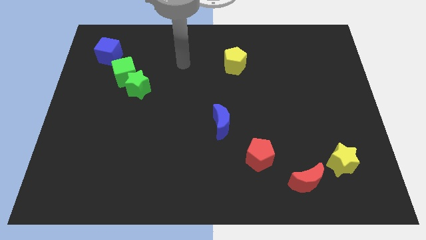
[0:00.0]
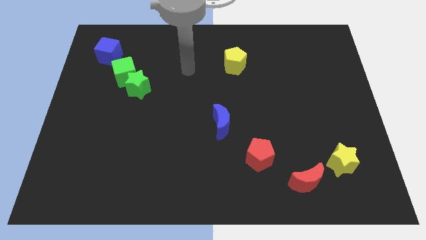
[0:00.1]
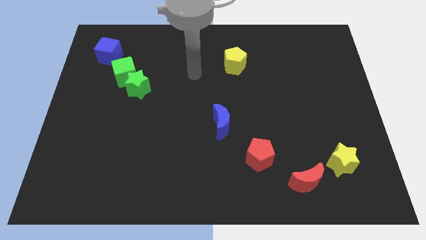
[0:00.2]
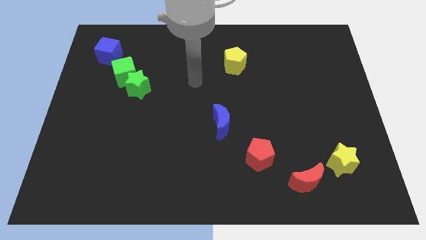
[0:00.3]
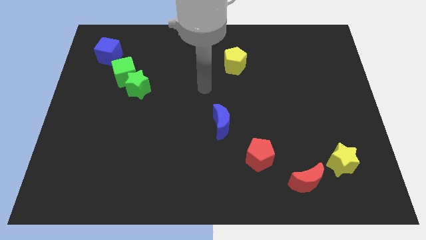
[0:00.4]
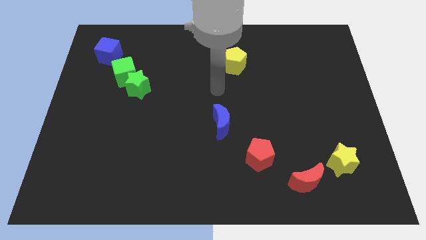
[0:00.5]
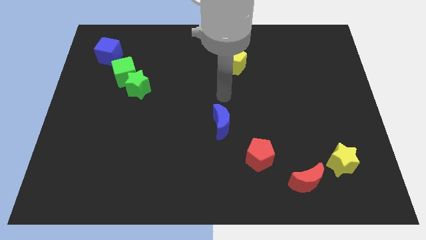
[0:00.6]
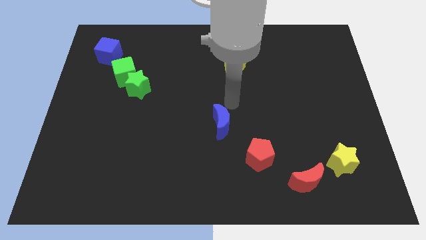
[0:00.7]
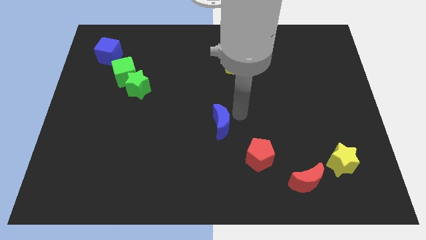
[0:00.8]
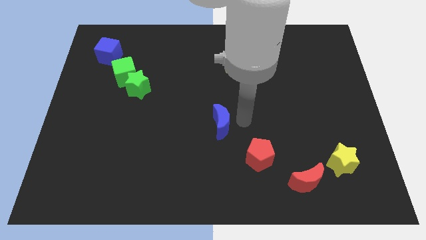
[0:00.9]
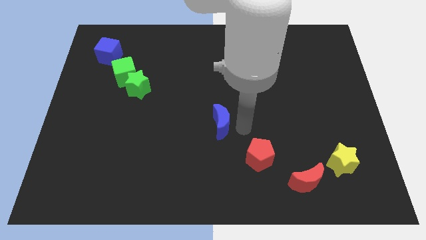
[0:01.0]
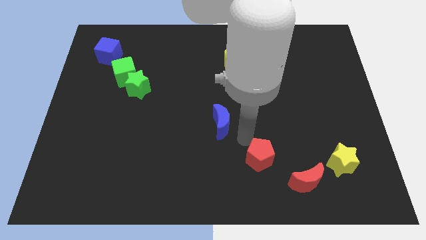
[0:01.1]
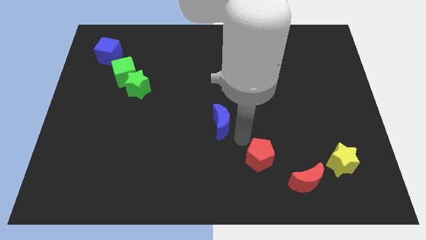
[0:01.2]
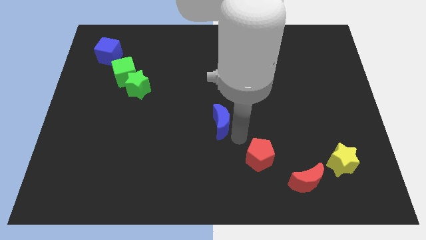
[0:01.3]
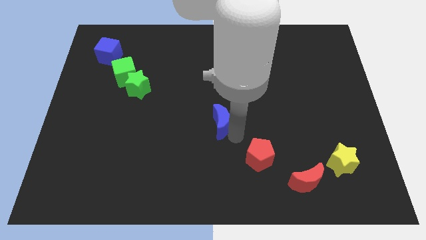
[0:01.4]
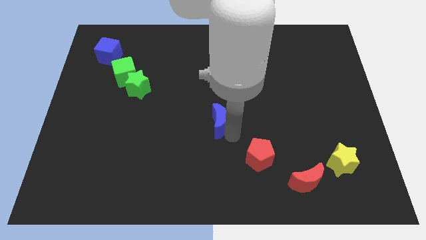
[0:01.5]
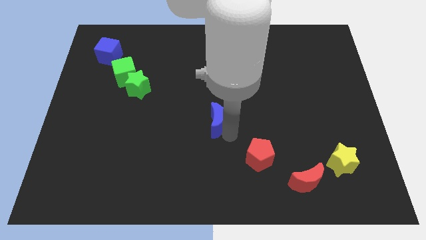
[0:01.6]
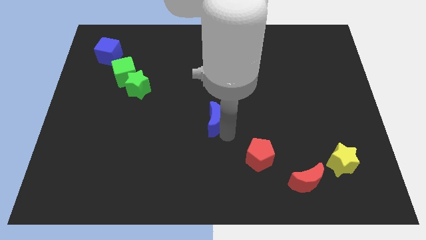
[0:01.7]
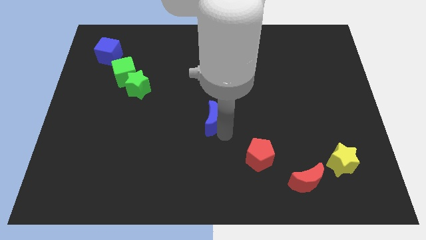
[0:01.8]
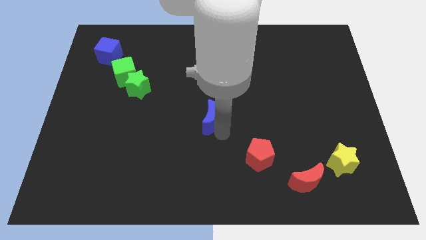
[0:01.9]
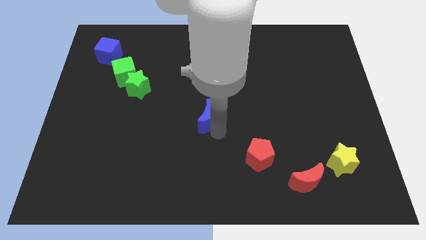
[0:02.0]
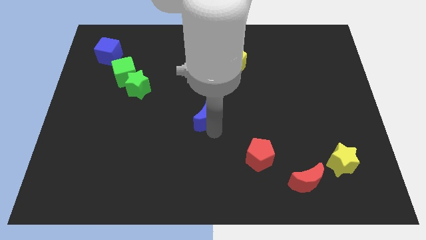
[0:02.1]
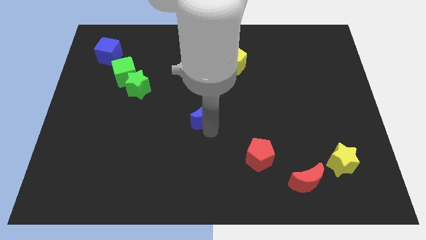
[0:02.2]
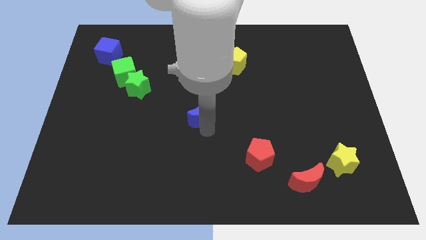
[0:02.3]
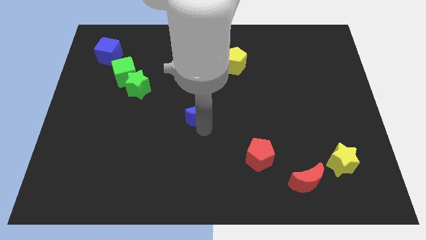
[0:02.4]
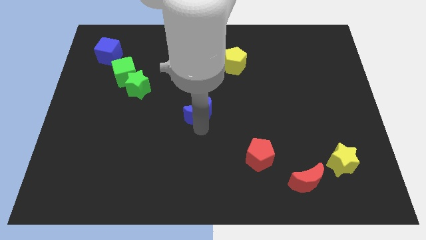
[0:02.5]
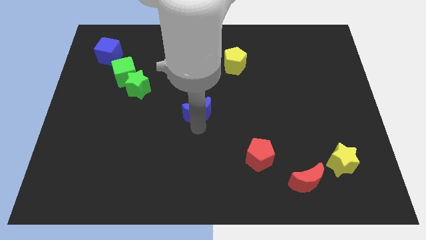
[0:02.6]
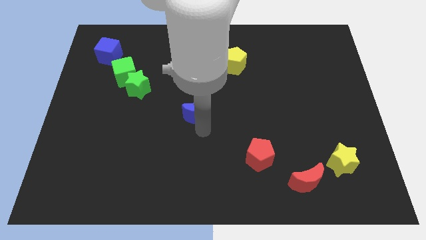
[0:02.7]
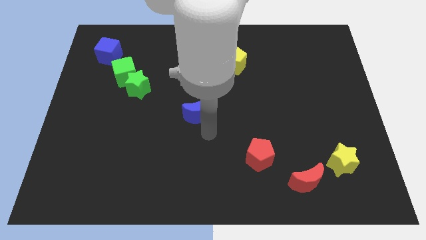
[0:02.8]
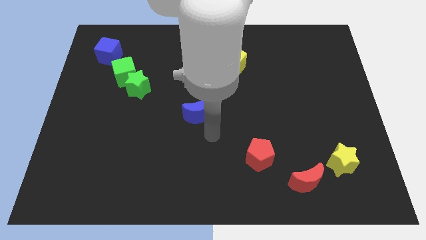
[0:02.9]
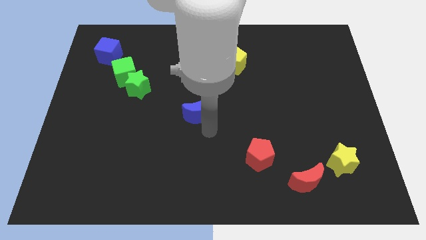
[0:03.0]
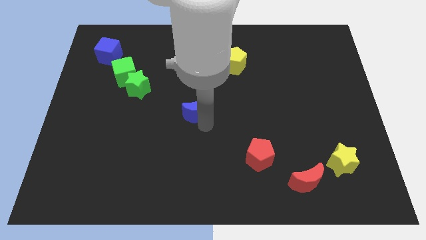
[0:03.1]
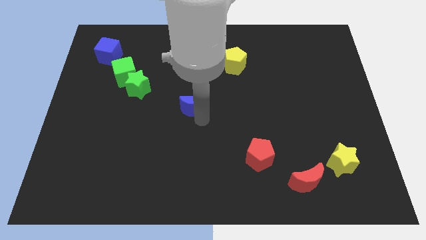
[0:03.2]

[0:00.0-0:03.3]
move the blue moon upwards and to the left a bit

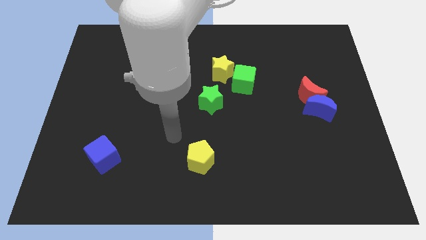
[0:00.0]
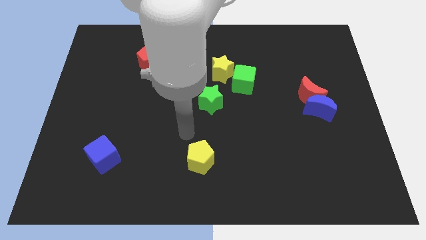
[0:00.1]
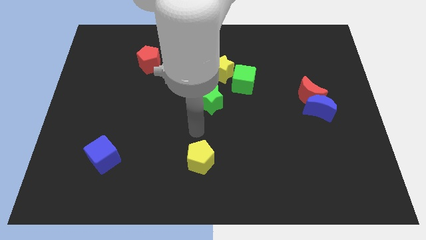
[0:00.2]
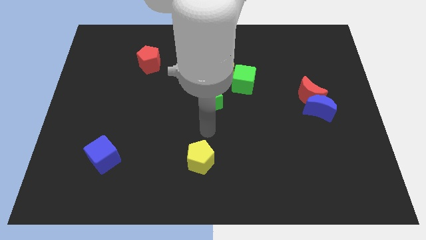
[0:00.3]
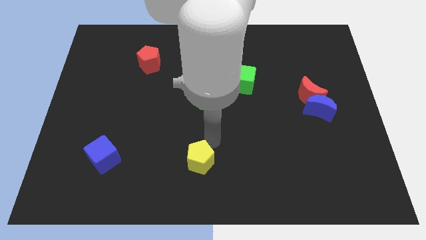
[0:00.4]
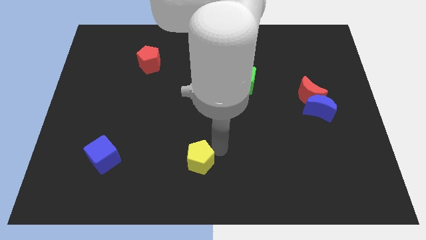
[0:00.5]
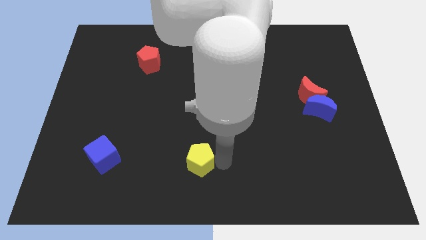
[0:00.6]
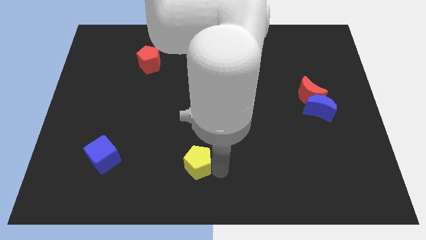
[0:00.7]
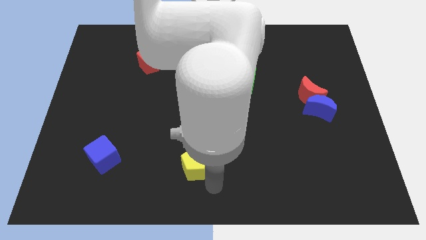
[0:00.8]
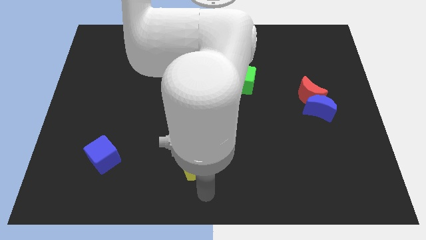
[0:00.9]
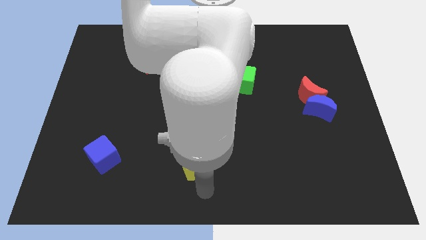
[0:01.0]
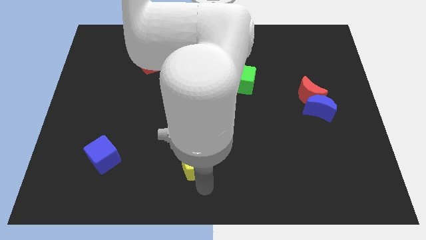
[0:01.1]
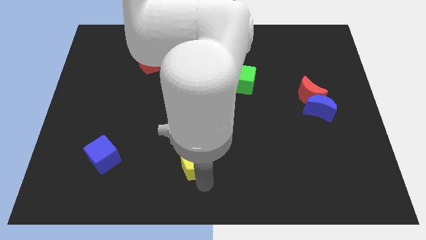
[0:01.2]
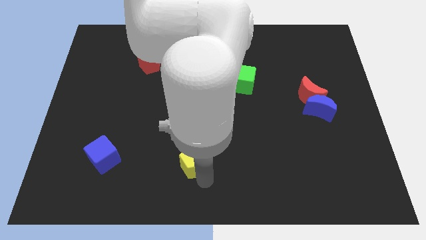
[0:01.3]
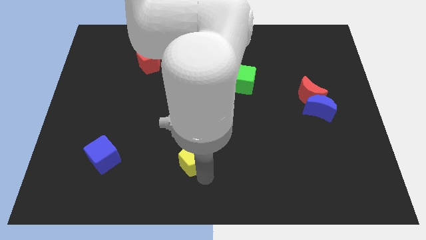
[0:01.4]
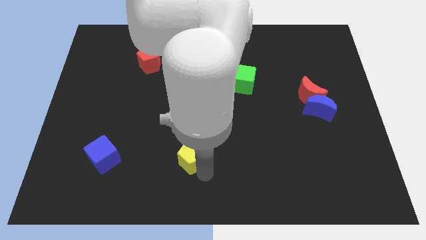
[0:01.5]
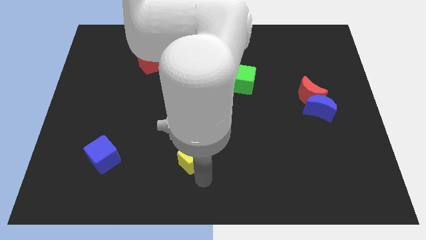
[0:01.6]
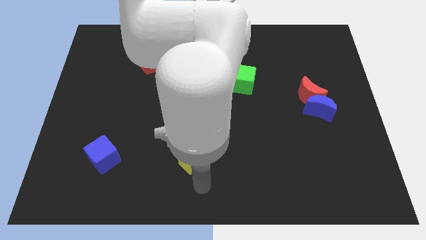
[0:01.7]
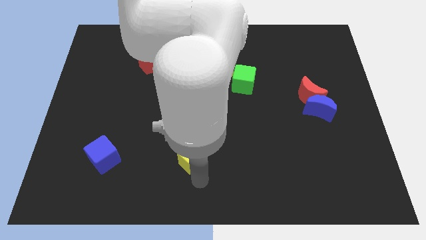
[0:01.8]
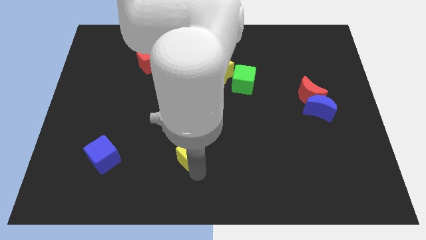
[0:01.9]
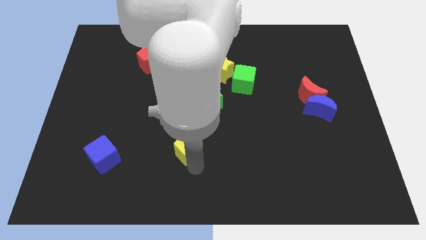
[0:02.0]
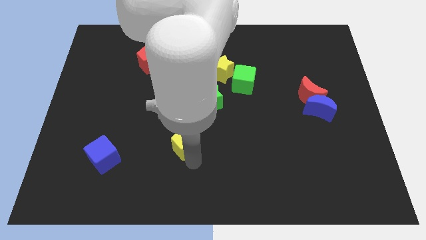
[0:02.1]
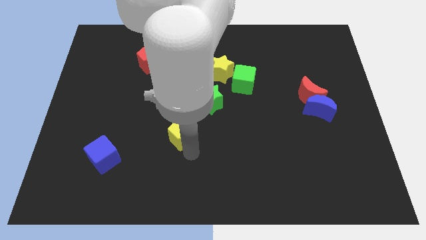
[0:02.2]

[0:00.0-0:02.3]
slide the yellow pentagon slightly diagonally upwards and left

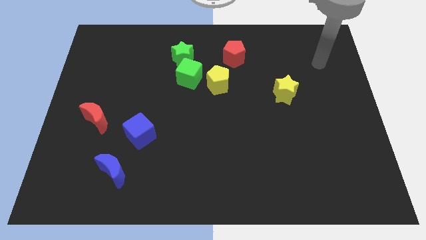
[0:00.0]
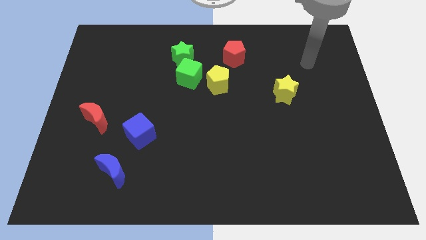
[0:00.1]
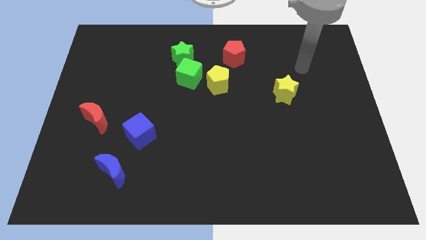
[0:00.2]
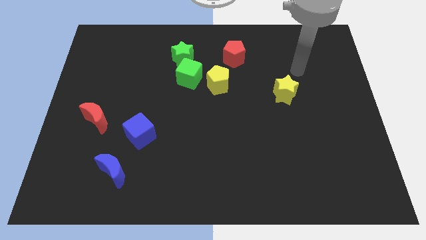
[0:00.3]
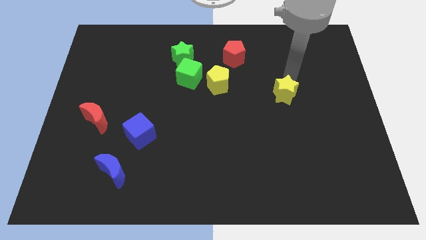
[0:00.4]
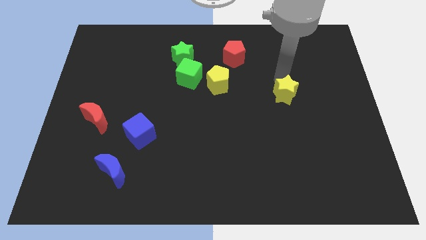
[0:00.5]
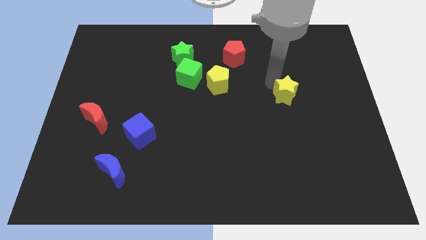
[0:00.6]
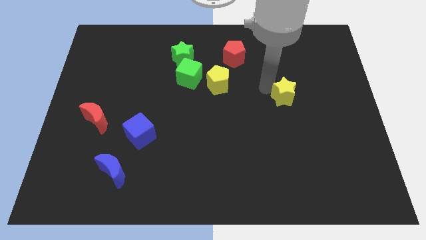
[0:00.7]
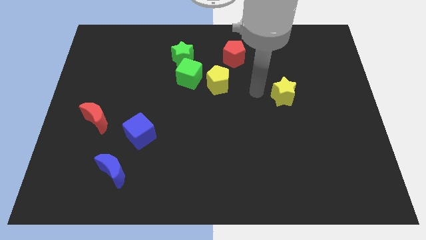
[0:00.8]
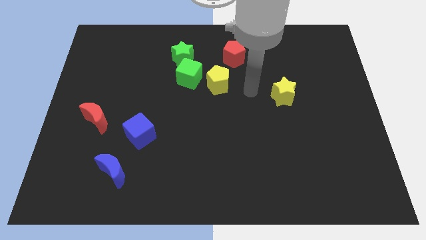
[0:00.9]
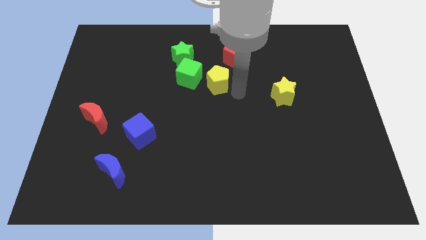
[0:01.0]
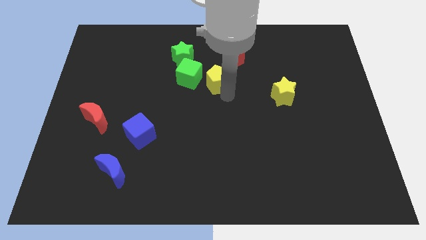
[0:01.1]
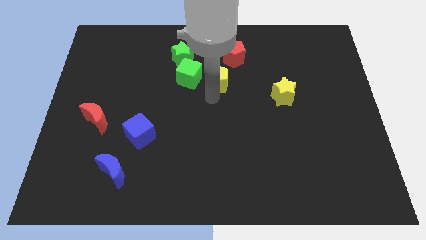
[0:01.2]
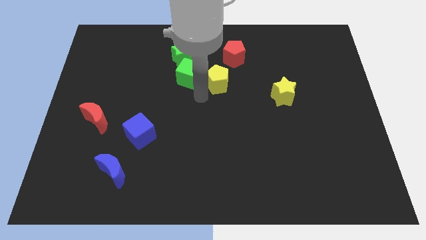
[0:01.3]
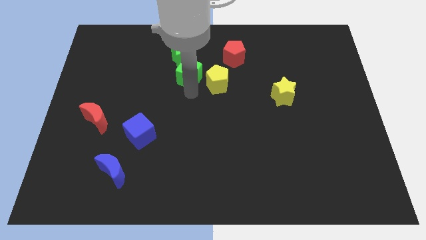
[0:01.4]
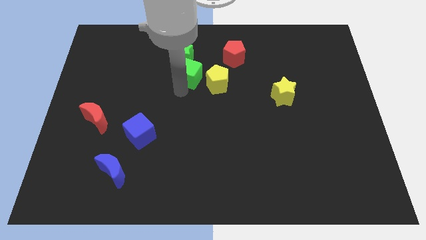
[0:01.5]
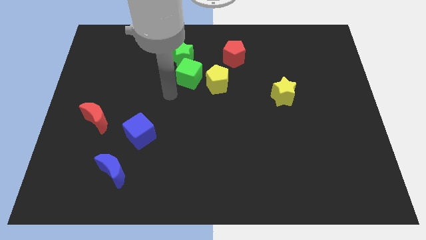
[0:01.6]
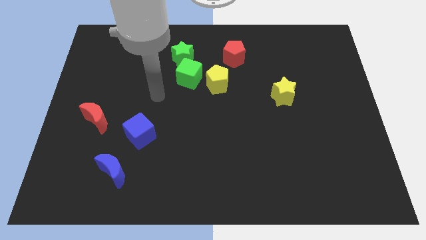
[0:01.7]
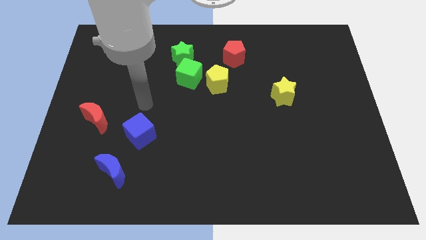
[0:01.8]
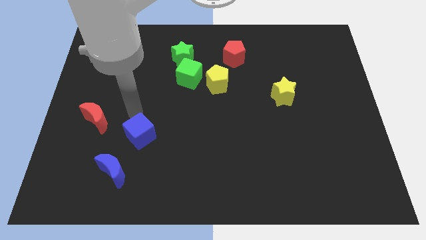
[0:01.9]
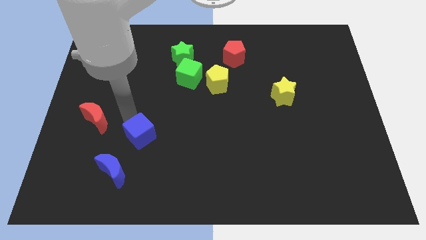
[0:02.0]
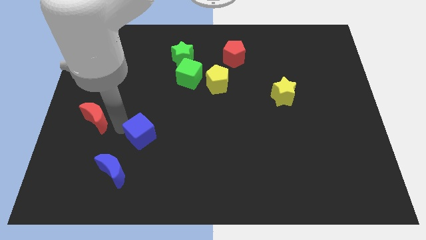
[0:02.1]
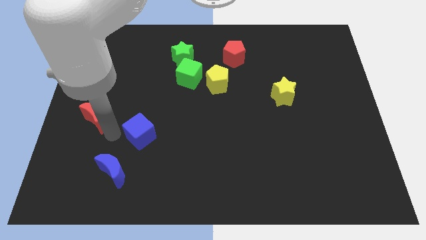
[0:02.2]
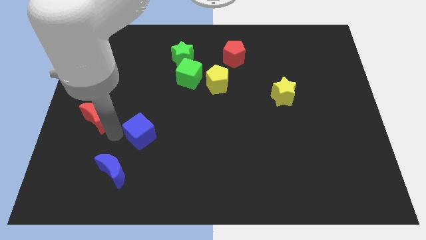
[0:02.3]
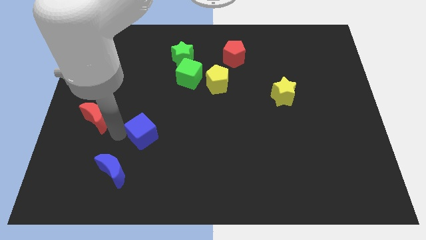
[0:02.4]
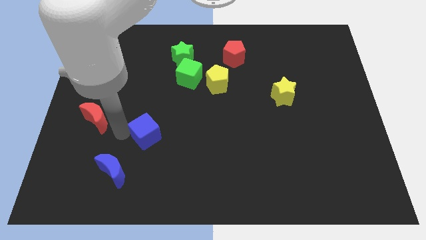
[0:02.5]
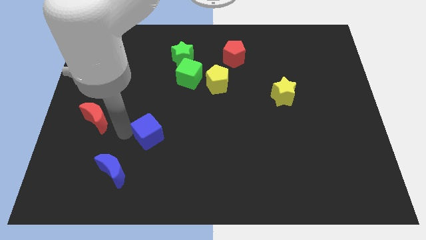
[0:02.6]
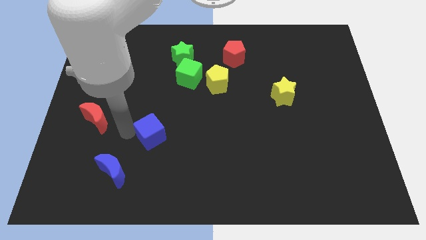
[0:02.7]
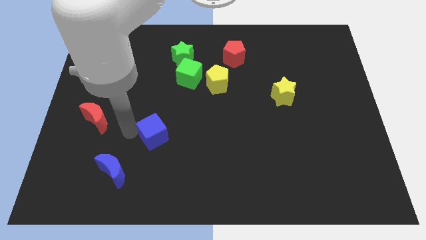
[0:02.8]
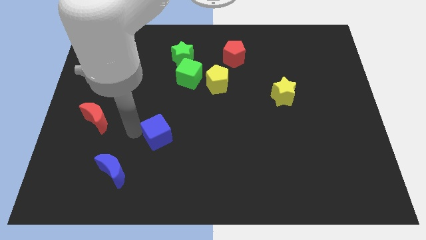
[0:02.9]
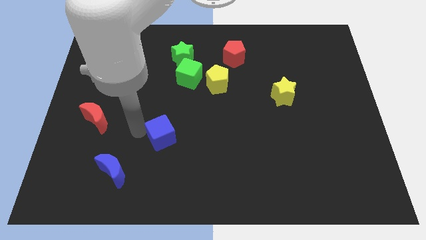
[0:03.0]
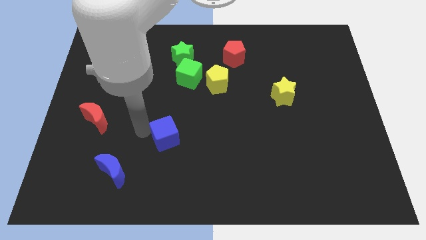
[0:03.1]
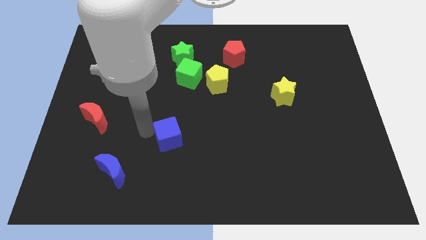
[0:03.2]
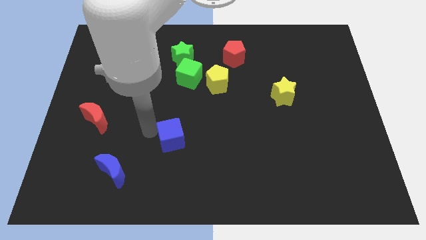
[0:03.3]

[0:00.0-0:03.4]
slightly move the blue cube to the right
